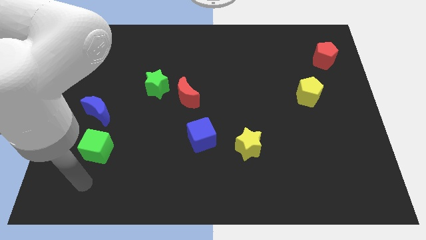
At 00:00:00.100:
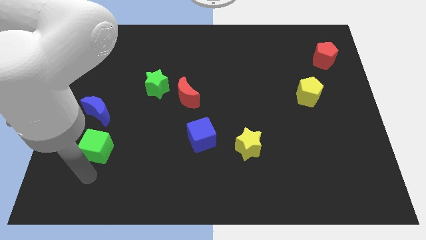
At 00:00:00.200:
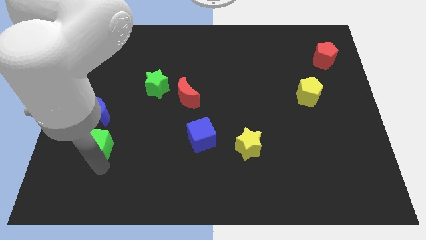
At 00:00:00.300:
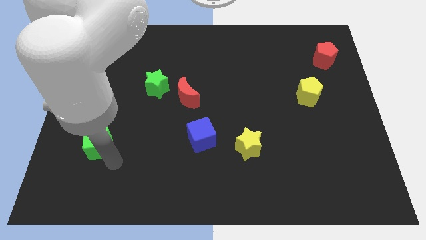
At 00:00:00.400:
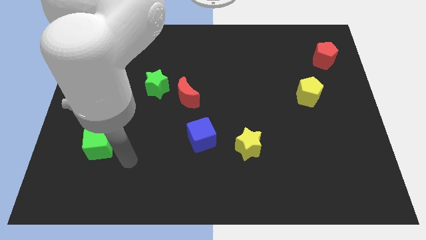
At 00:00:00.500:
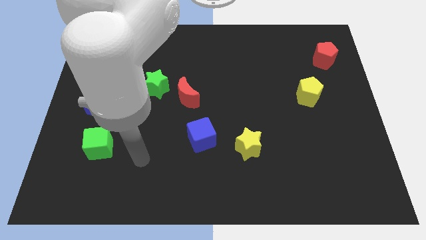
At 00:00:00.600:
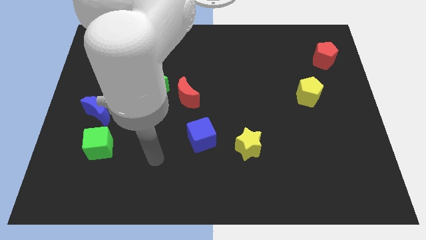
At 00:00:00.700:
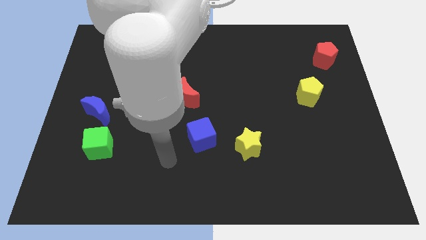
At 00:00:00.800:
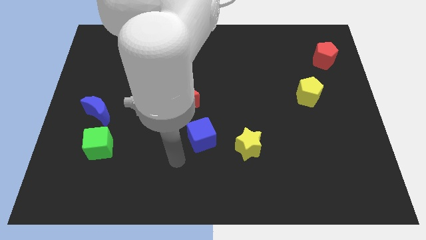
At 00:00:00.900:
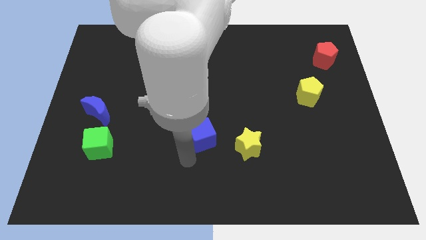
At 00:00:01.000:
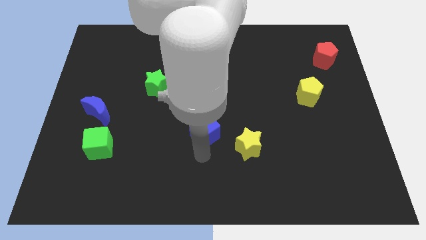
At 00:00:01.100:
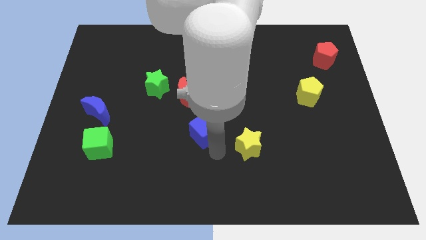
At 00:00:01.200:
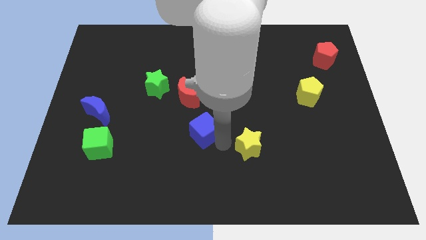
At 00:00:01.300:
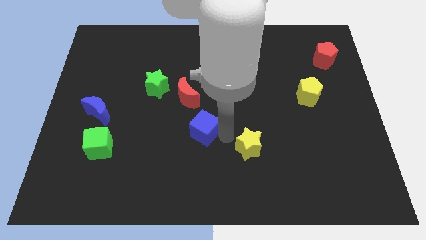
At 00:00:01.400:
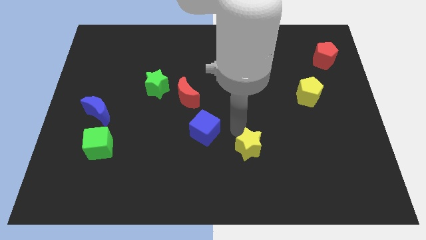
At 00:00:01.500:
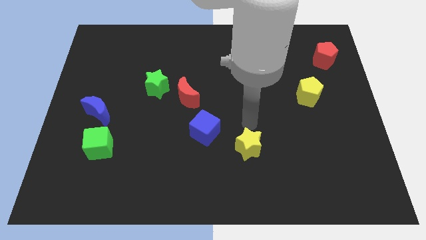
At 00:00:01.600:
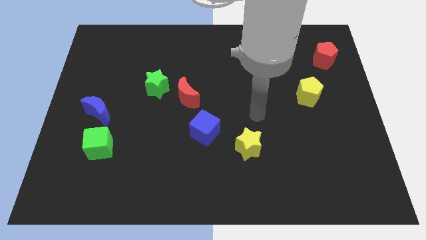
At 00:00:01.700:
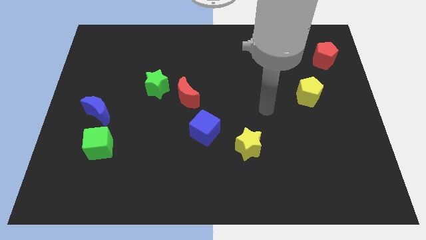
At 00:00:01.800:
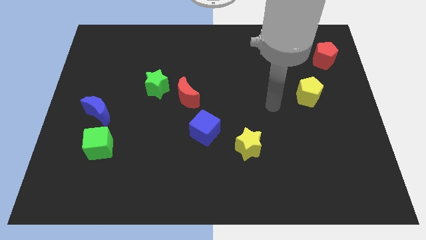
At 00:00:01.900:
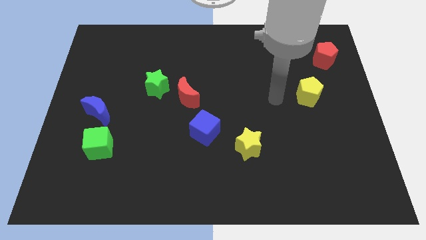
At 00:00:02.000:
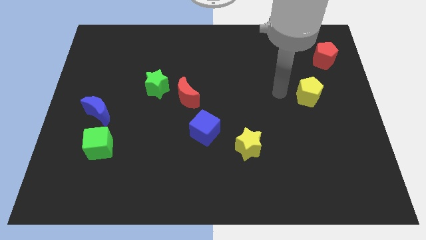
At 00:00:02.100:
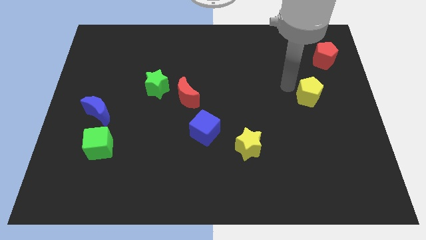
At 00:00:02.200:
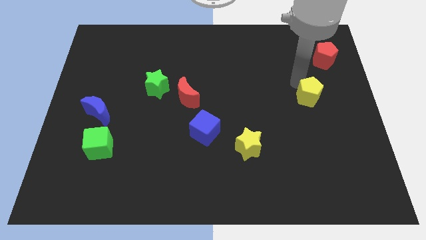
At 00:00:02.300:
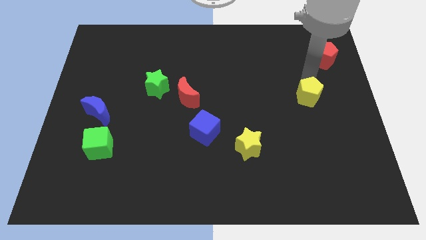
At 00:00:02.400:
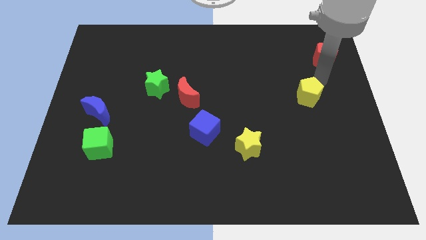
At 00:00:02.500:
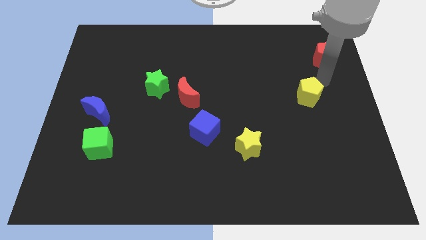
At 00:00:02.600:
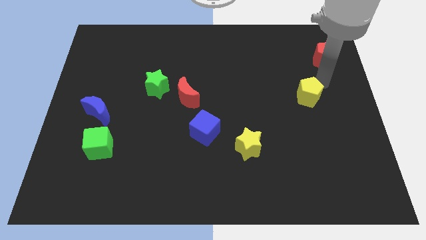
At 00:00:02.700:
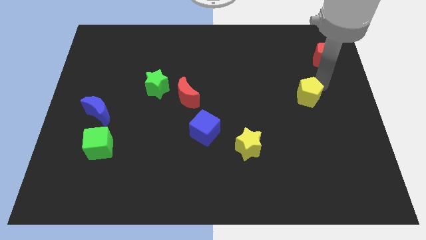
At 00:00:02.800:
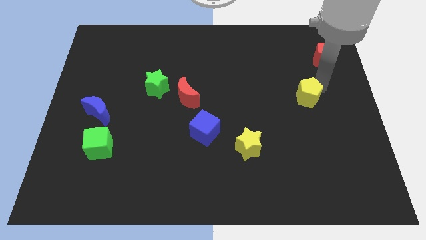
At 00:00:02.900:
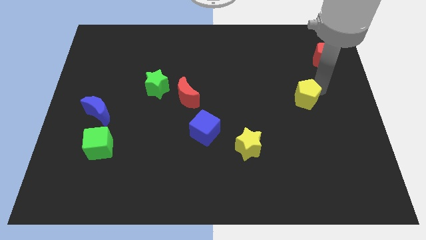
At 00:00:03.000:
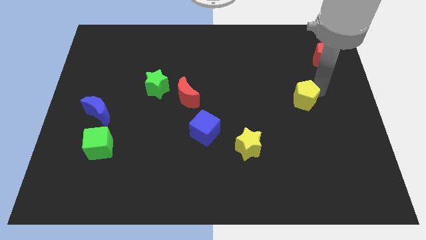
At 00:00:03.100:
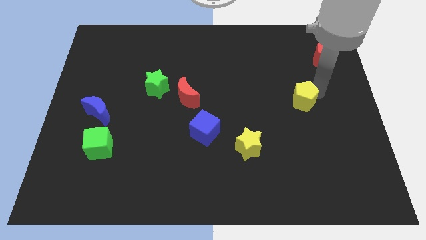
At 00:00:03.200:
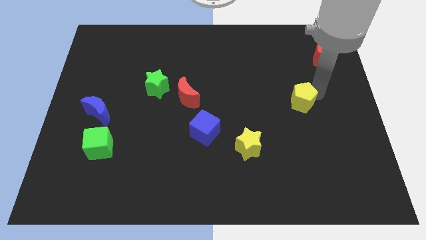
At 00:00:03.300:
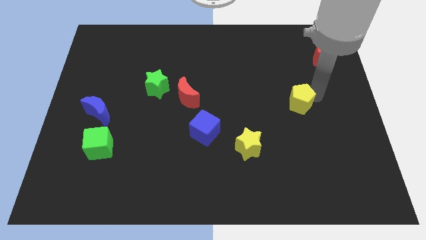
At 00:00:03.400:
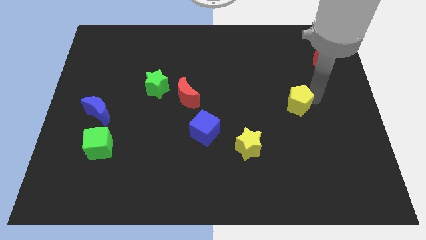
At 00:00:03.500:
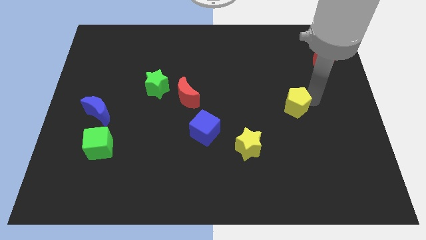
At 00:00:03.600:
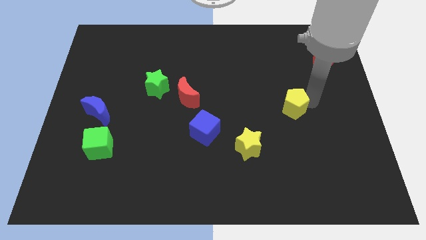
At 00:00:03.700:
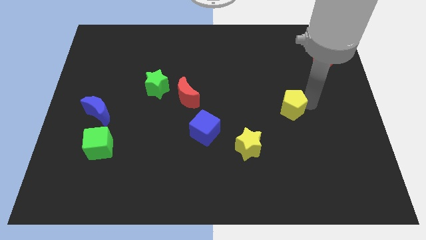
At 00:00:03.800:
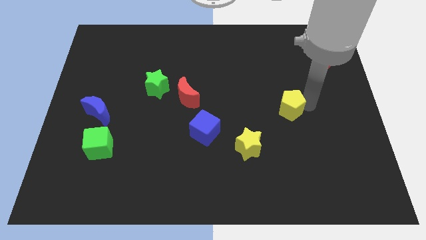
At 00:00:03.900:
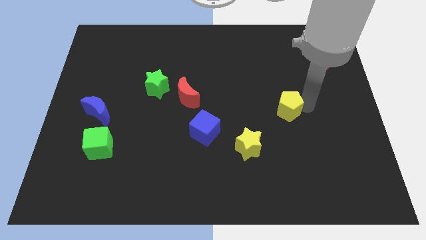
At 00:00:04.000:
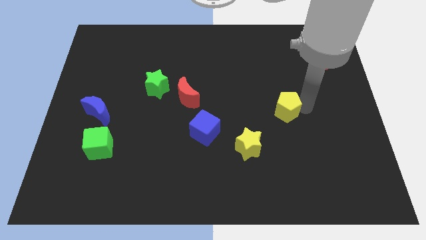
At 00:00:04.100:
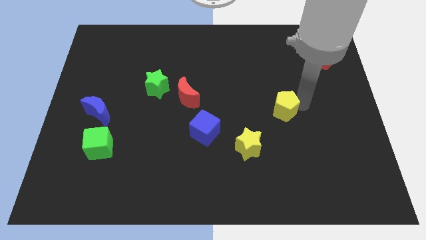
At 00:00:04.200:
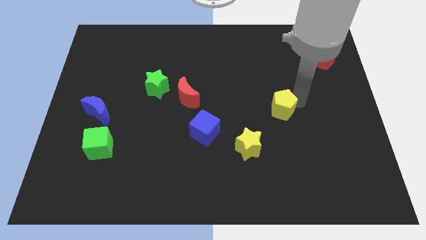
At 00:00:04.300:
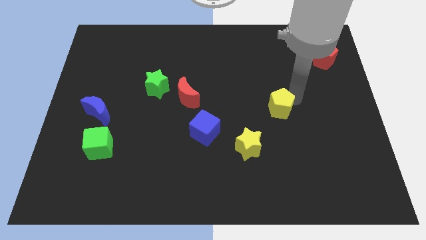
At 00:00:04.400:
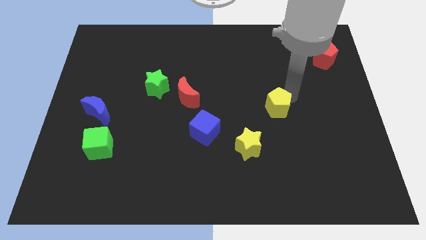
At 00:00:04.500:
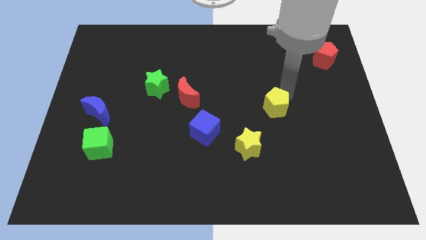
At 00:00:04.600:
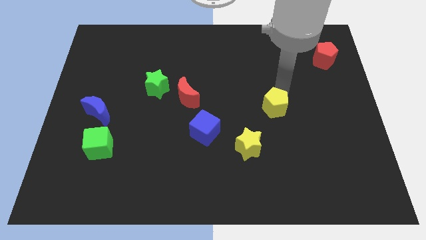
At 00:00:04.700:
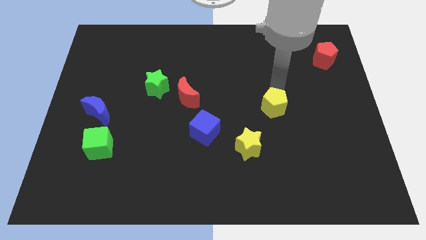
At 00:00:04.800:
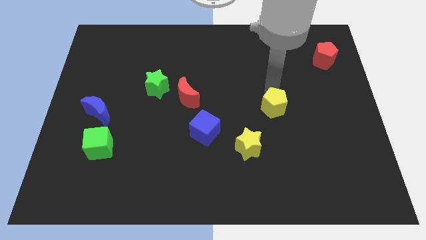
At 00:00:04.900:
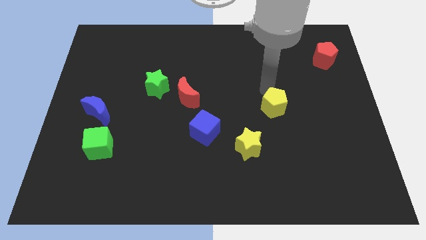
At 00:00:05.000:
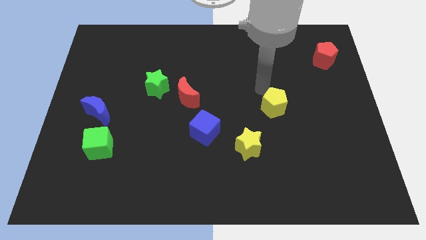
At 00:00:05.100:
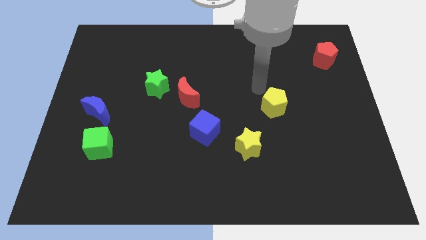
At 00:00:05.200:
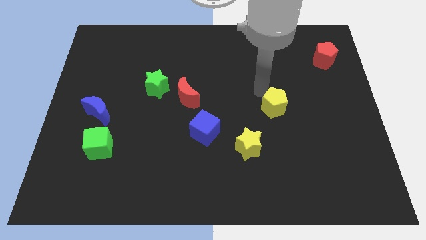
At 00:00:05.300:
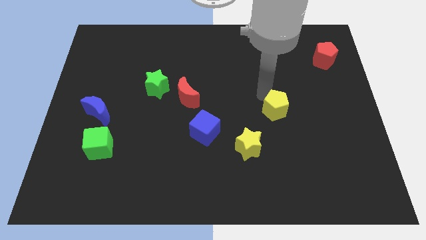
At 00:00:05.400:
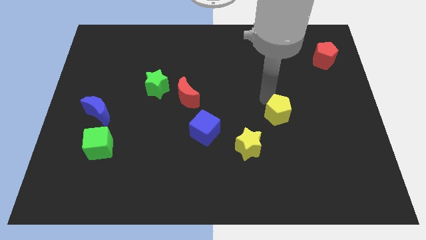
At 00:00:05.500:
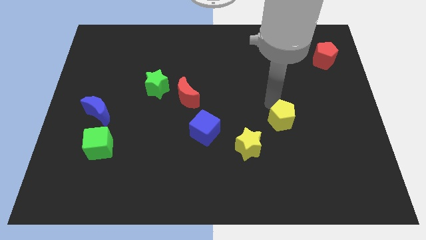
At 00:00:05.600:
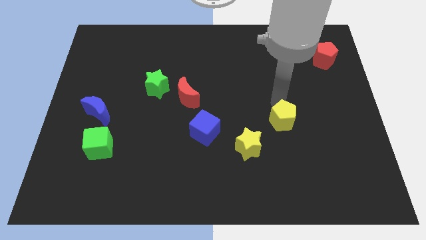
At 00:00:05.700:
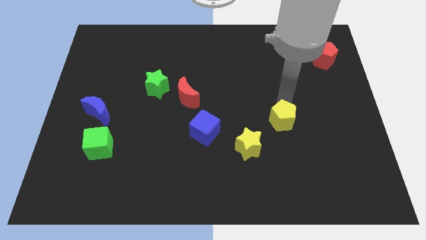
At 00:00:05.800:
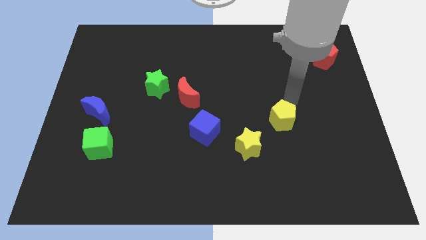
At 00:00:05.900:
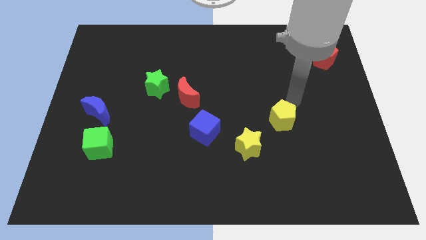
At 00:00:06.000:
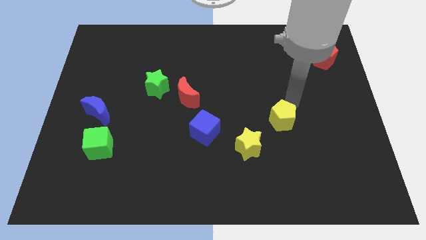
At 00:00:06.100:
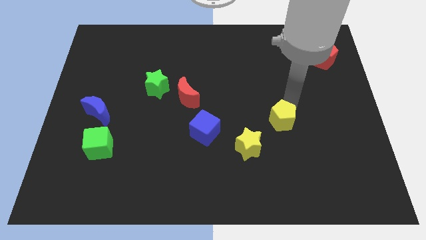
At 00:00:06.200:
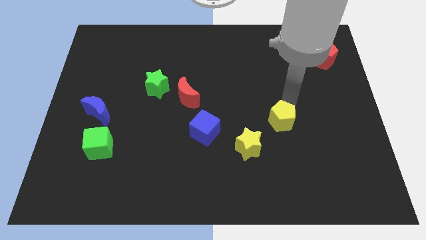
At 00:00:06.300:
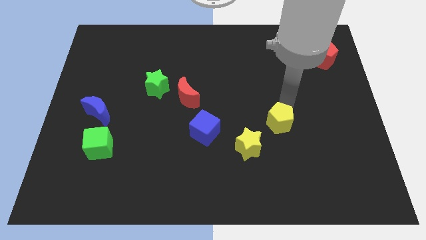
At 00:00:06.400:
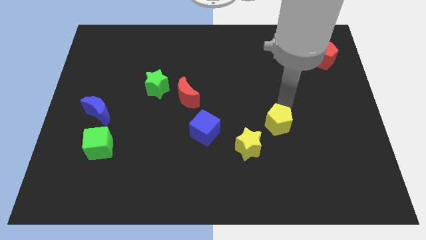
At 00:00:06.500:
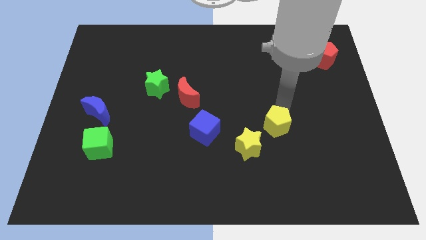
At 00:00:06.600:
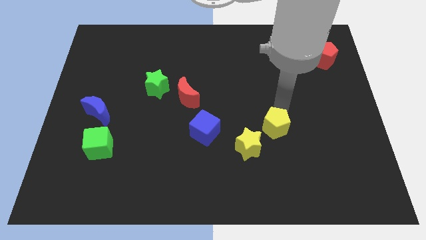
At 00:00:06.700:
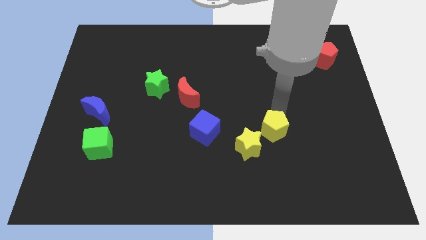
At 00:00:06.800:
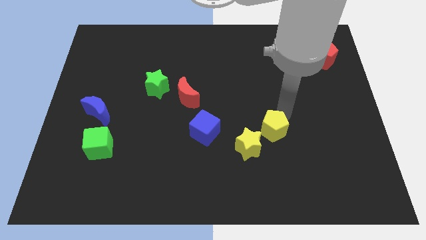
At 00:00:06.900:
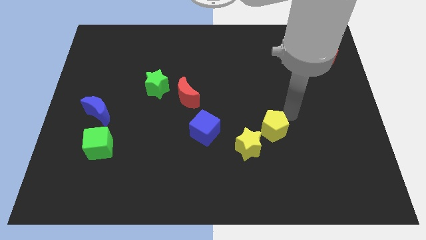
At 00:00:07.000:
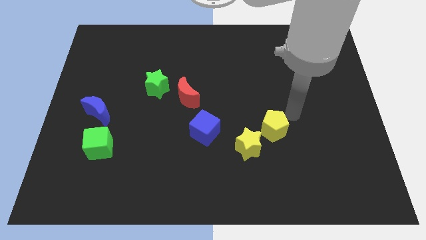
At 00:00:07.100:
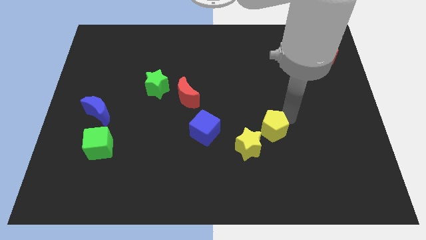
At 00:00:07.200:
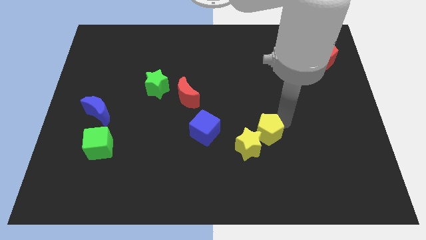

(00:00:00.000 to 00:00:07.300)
move the yellow pentagon towards the yellow star
